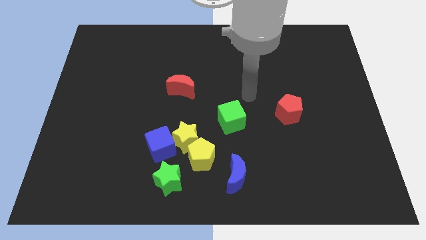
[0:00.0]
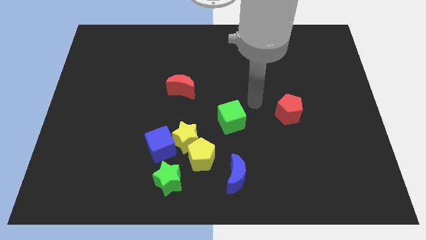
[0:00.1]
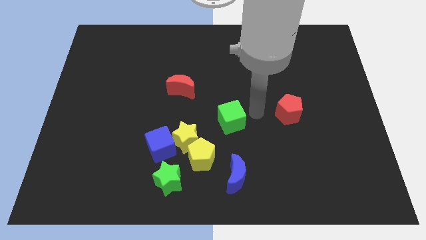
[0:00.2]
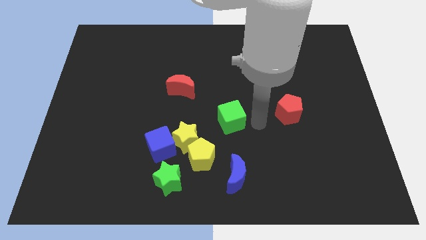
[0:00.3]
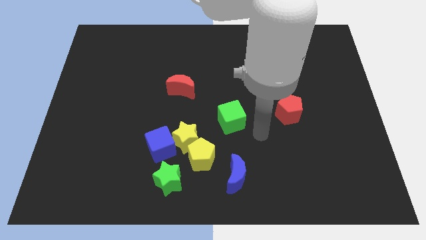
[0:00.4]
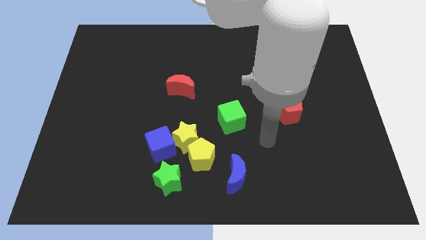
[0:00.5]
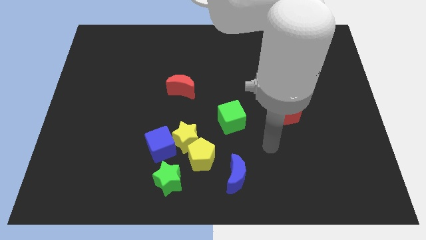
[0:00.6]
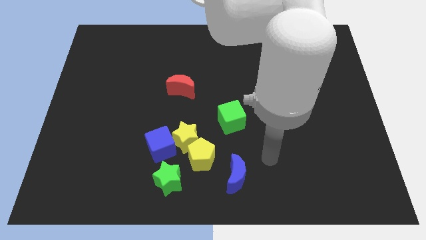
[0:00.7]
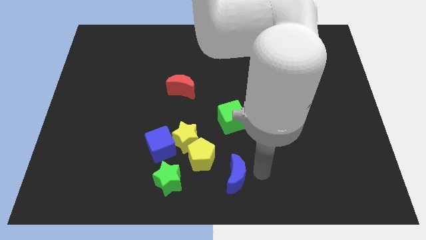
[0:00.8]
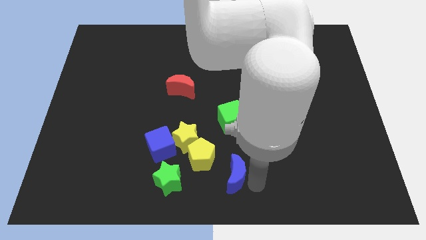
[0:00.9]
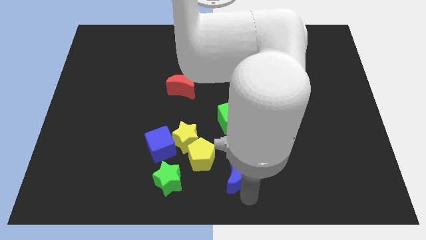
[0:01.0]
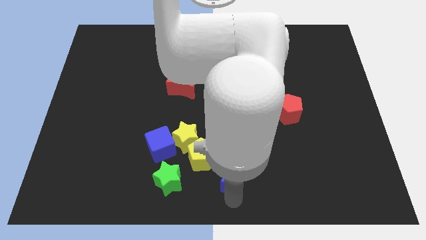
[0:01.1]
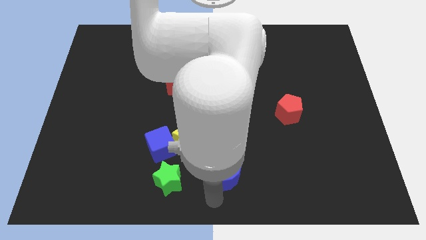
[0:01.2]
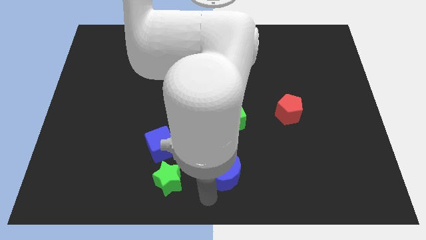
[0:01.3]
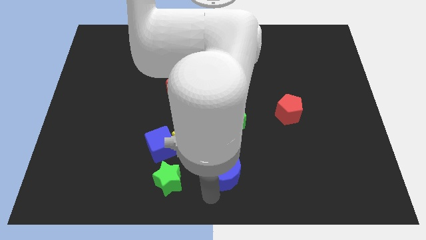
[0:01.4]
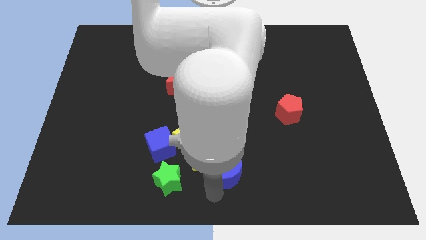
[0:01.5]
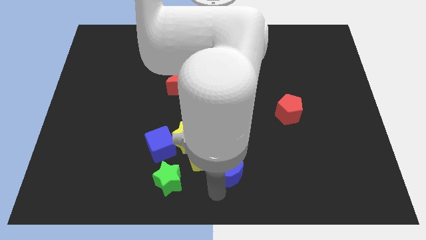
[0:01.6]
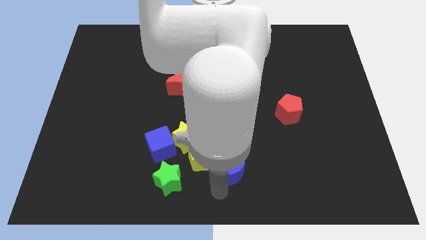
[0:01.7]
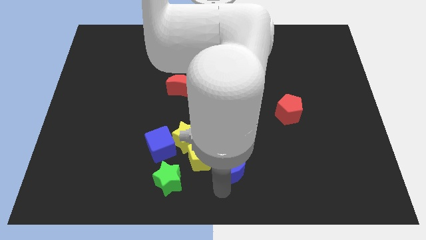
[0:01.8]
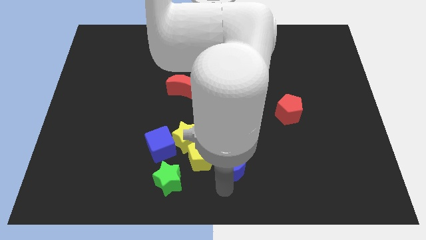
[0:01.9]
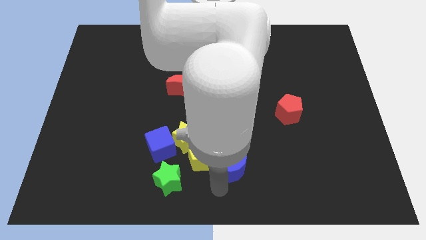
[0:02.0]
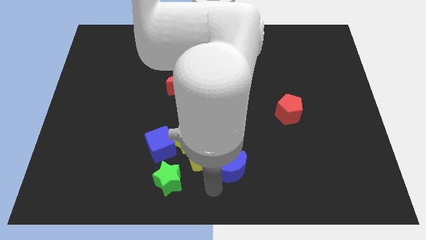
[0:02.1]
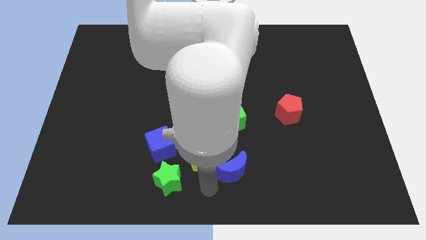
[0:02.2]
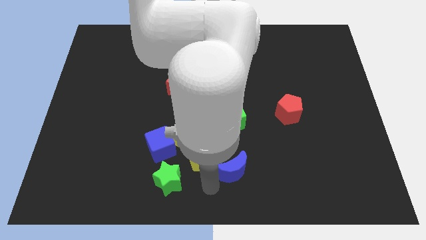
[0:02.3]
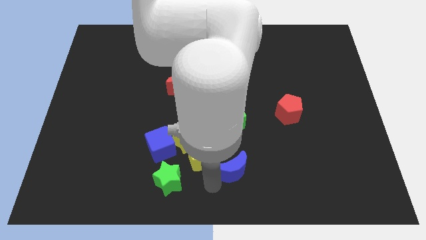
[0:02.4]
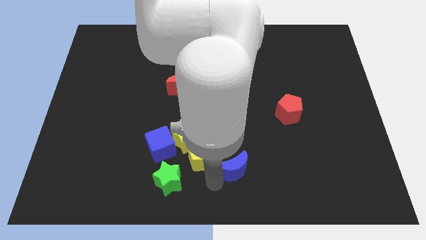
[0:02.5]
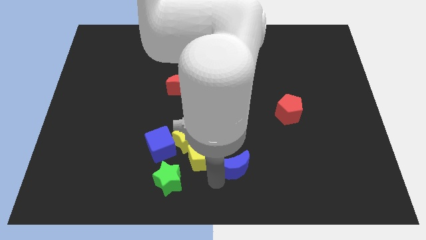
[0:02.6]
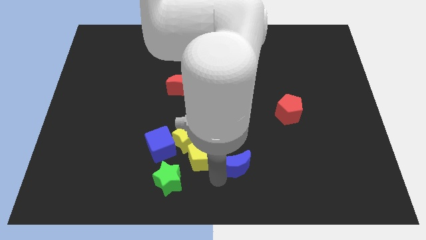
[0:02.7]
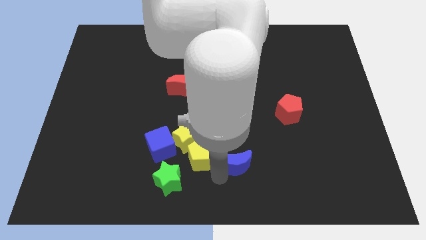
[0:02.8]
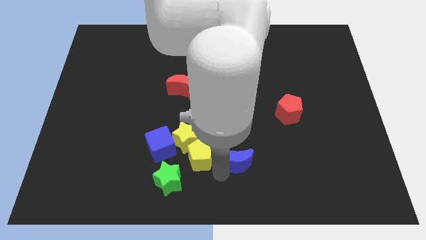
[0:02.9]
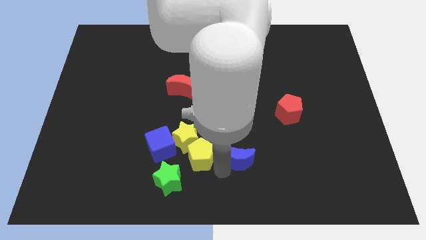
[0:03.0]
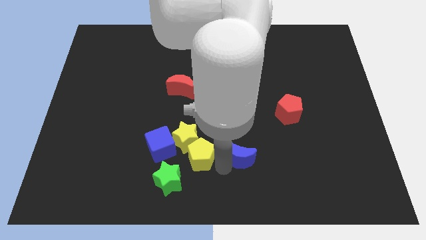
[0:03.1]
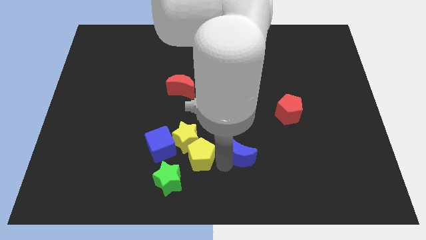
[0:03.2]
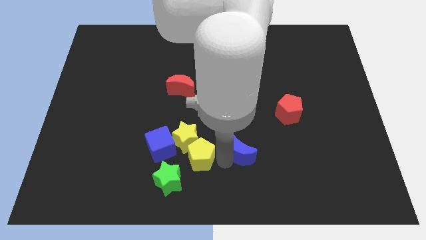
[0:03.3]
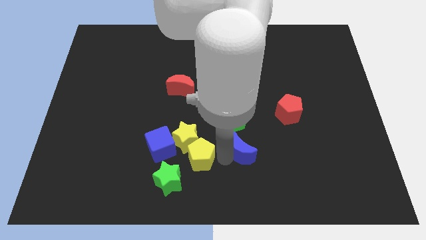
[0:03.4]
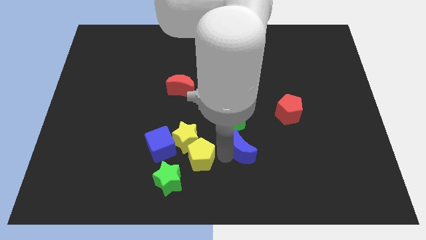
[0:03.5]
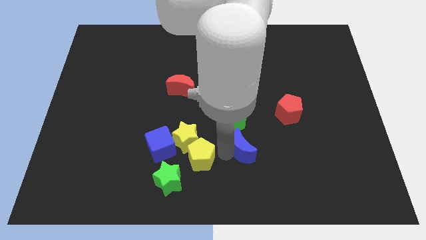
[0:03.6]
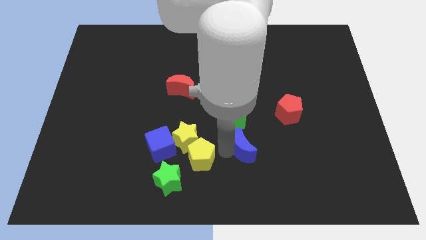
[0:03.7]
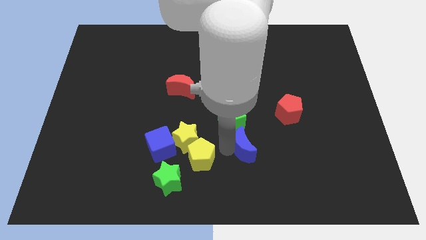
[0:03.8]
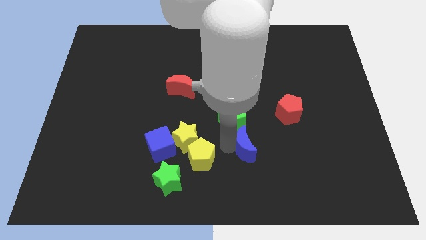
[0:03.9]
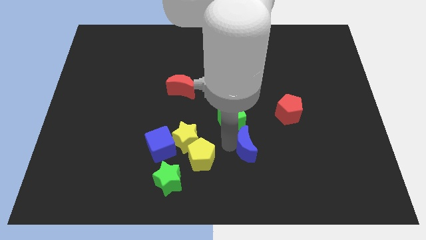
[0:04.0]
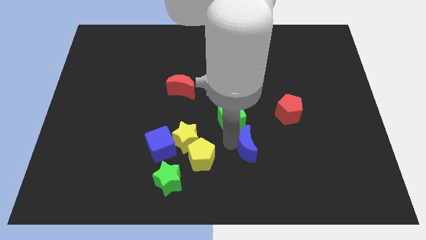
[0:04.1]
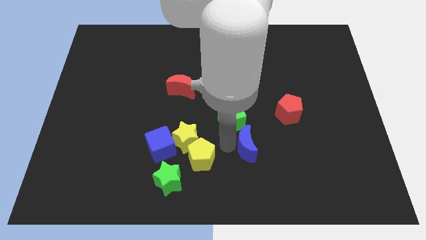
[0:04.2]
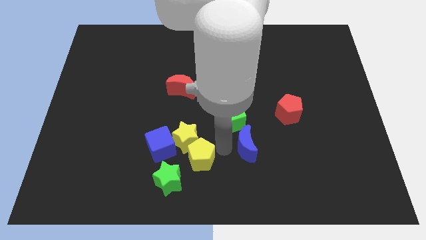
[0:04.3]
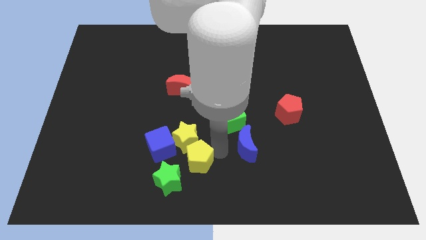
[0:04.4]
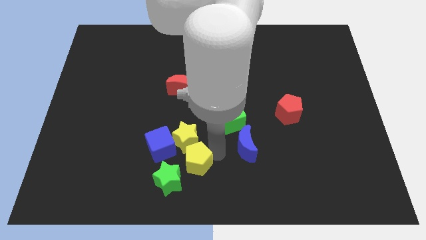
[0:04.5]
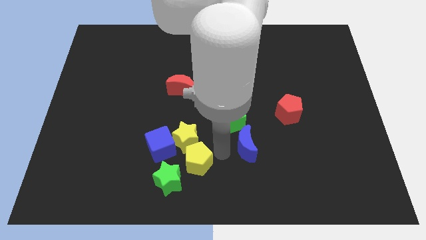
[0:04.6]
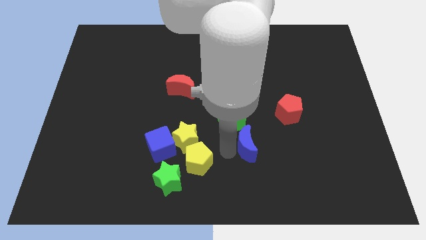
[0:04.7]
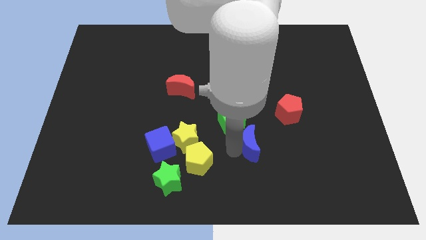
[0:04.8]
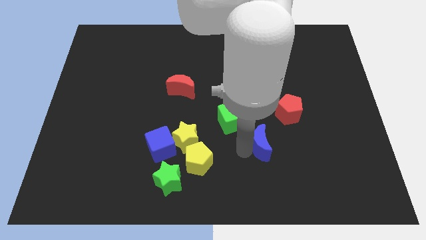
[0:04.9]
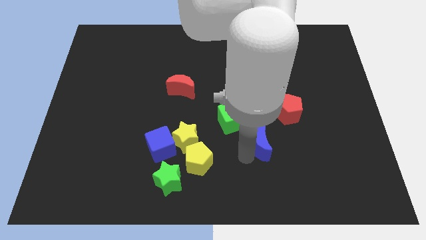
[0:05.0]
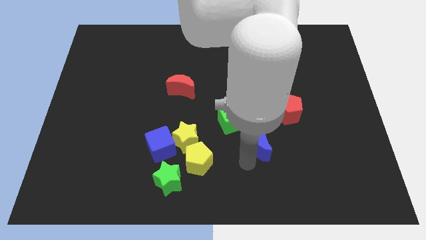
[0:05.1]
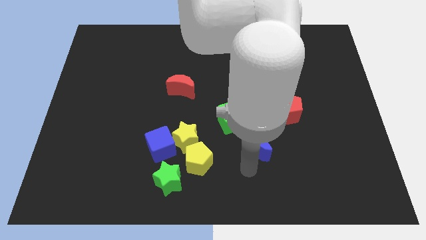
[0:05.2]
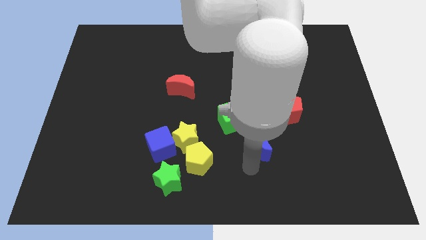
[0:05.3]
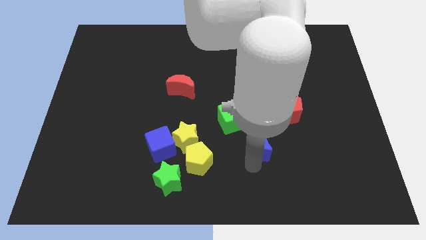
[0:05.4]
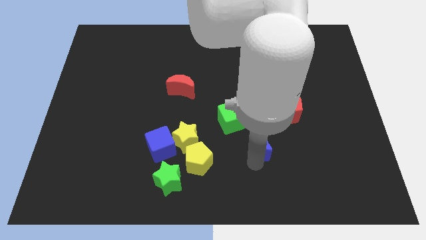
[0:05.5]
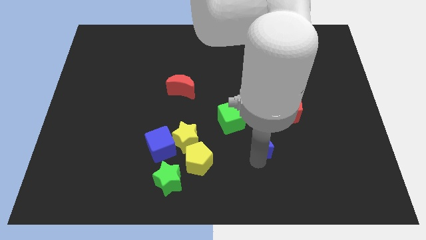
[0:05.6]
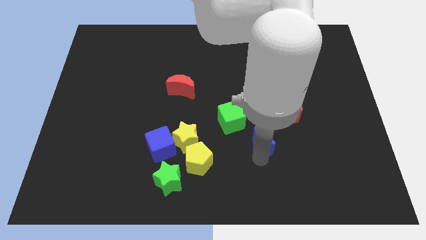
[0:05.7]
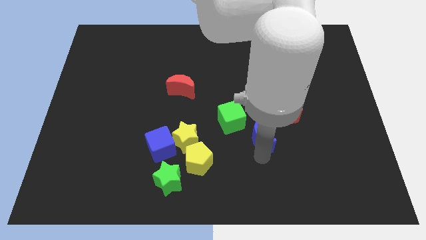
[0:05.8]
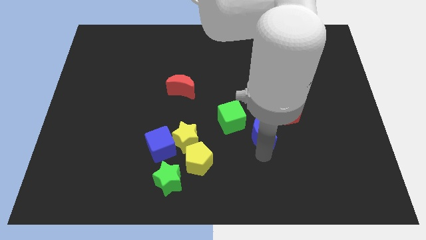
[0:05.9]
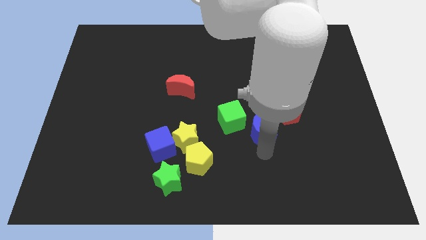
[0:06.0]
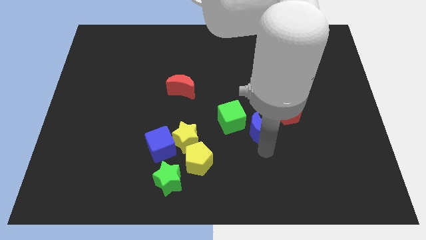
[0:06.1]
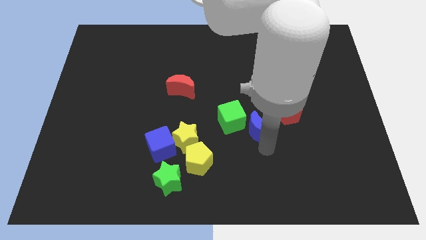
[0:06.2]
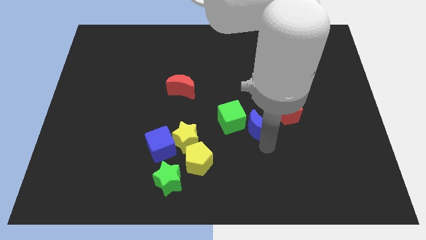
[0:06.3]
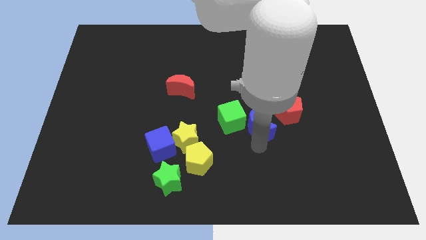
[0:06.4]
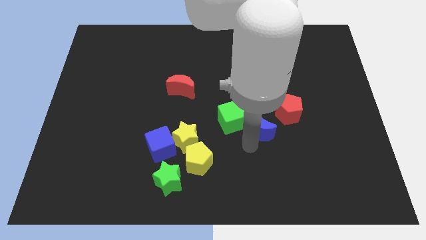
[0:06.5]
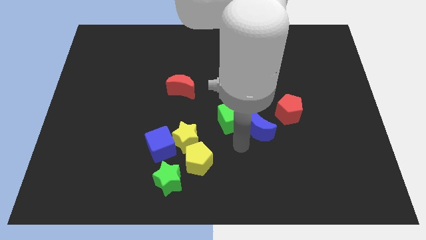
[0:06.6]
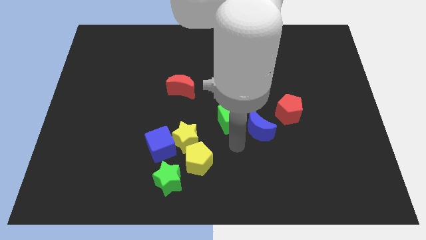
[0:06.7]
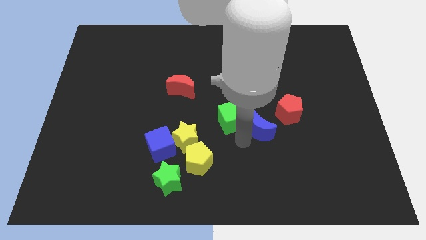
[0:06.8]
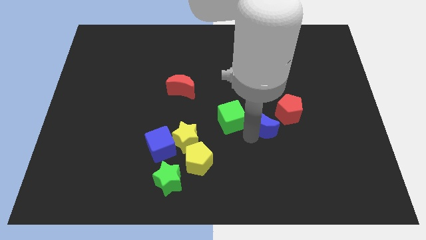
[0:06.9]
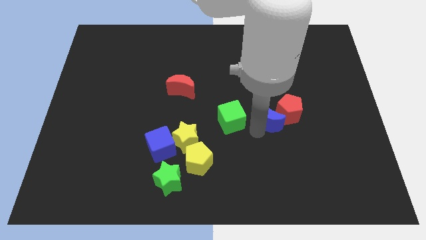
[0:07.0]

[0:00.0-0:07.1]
slide the blue moon next to the red pentagon

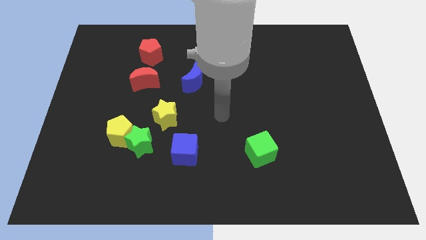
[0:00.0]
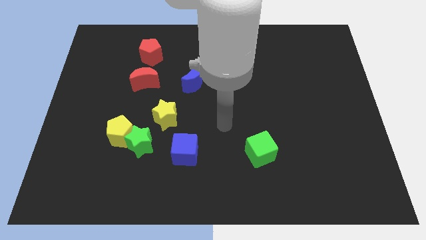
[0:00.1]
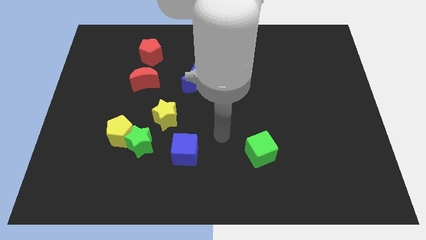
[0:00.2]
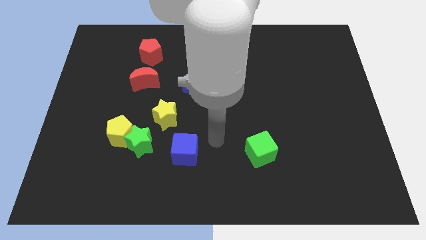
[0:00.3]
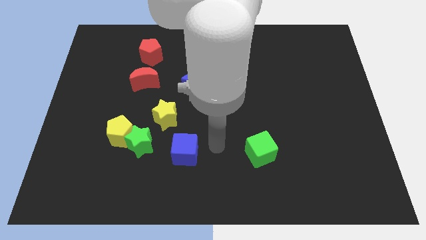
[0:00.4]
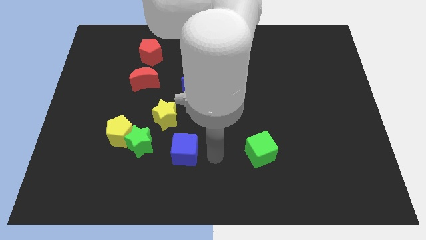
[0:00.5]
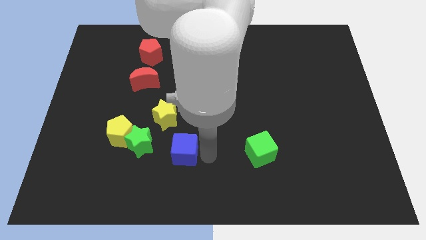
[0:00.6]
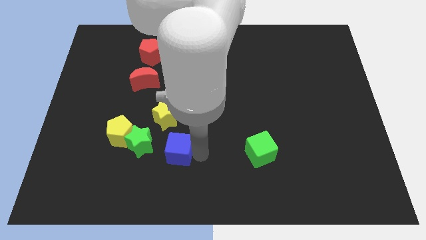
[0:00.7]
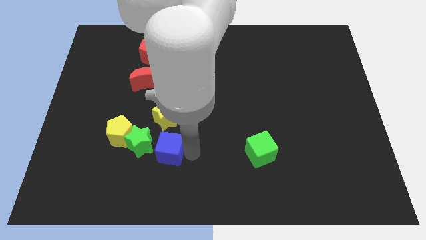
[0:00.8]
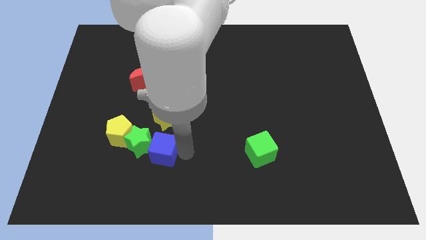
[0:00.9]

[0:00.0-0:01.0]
put the blue cube close to the green star

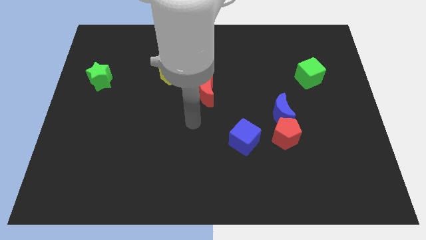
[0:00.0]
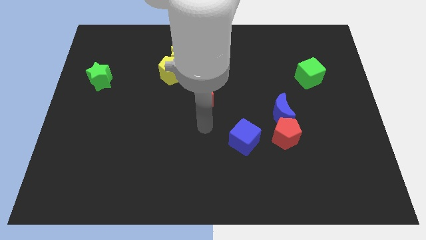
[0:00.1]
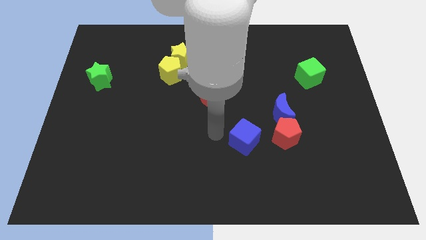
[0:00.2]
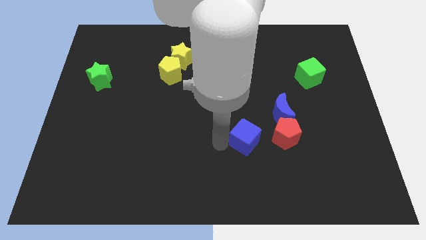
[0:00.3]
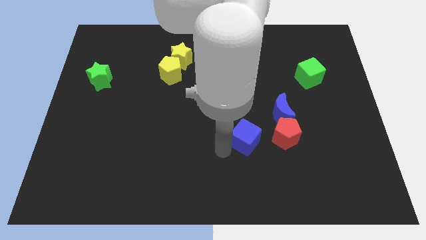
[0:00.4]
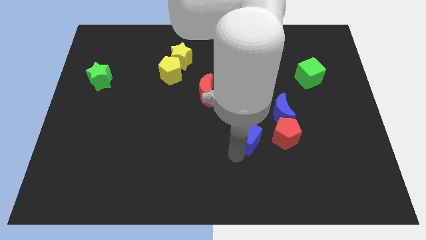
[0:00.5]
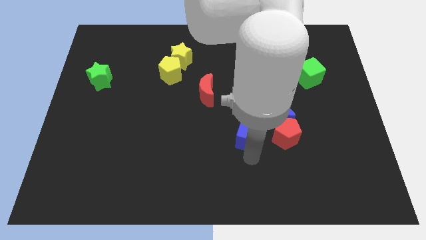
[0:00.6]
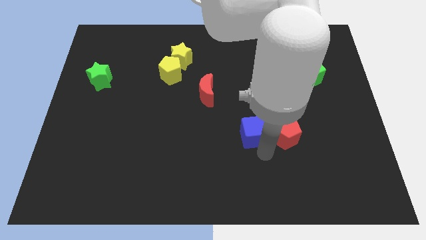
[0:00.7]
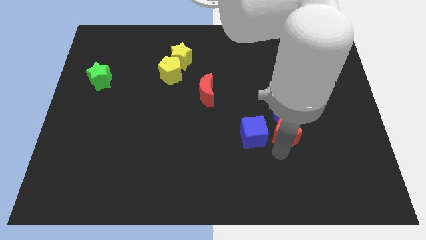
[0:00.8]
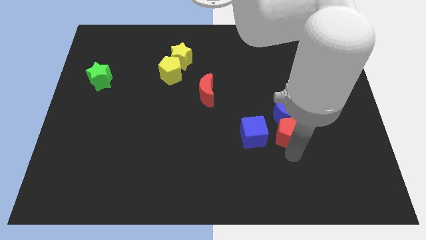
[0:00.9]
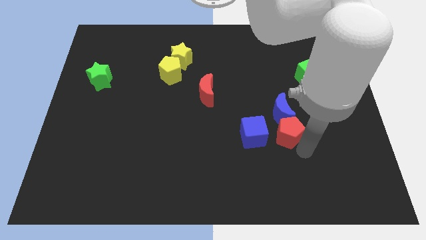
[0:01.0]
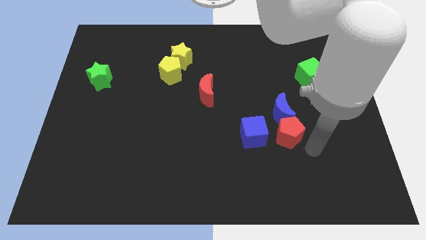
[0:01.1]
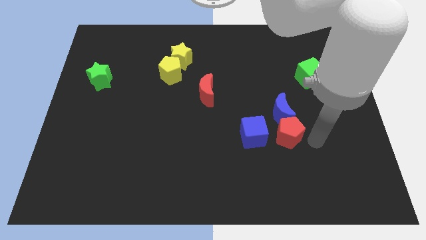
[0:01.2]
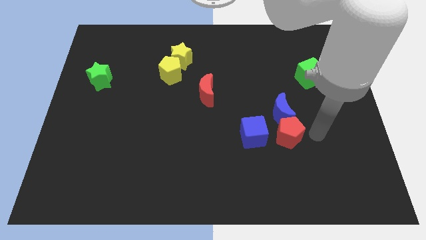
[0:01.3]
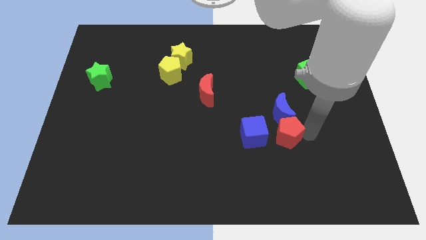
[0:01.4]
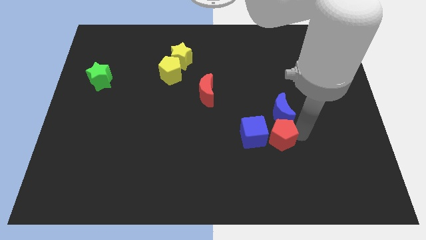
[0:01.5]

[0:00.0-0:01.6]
put the red pentagon towards the blue cube
